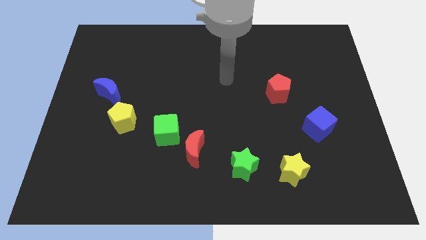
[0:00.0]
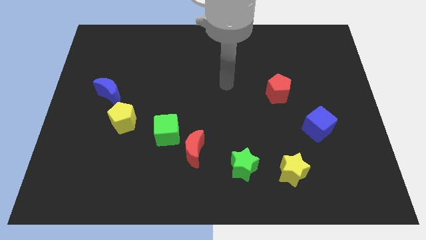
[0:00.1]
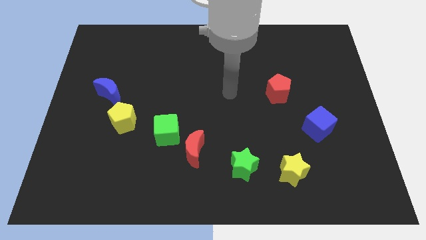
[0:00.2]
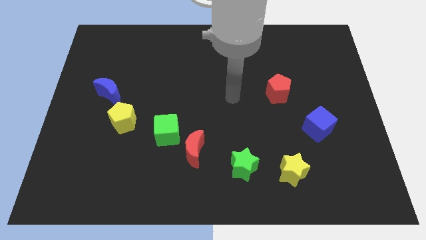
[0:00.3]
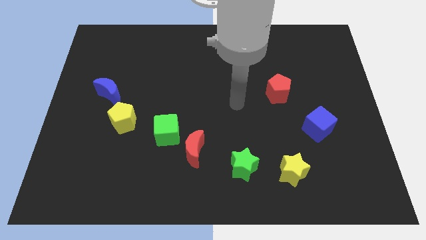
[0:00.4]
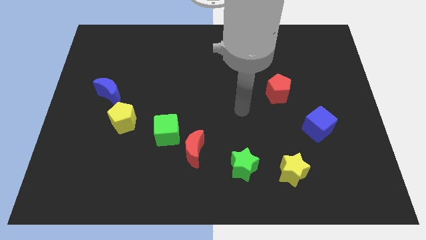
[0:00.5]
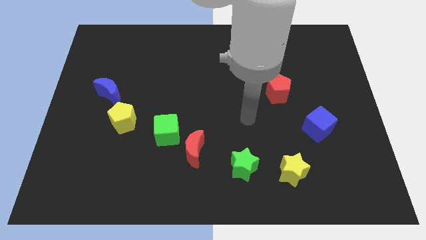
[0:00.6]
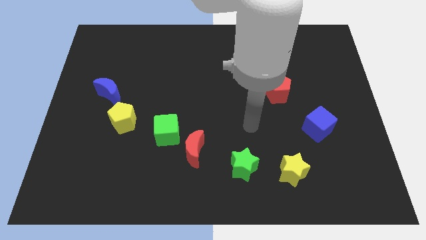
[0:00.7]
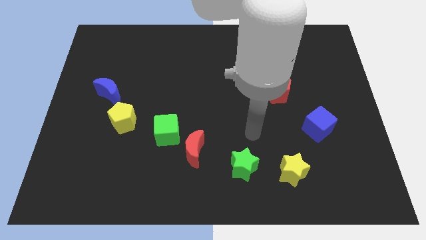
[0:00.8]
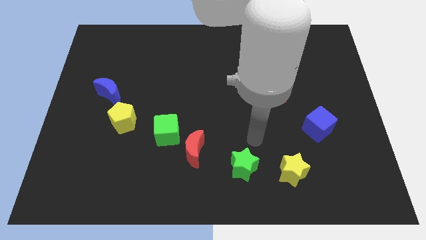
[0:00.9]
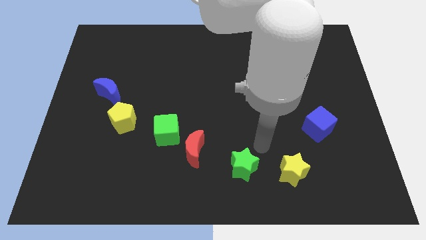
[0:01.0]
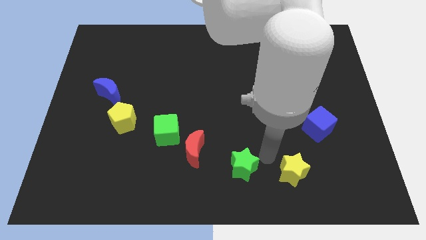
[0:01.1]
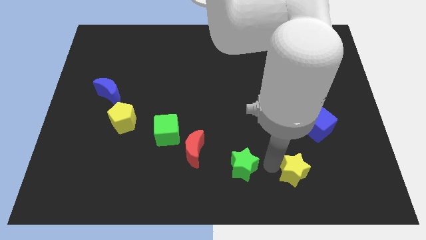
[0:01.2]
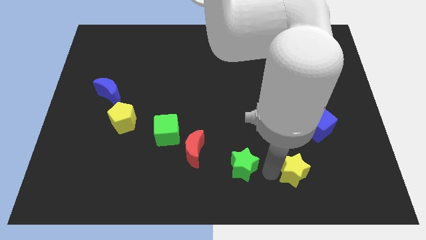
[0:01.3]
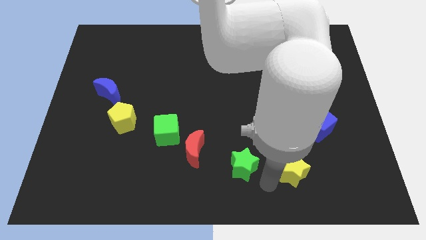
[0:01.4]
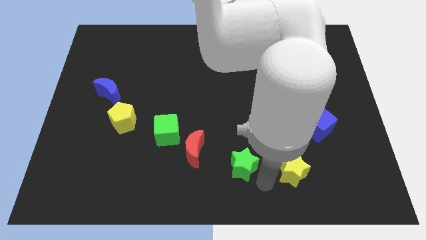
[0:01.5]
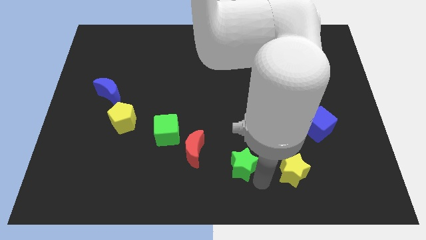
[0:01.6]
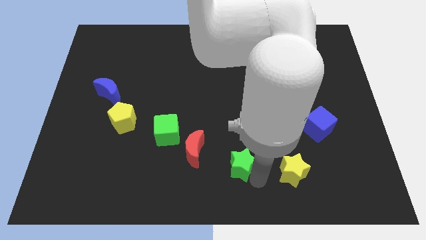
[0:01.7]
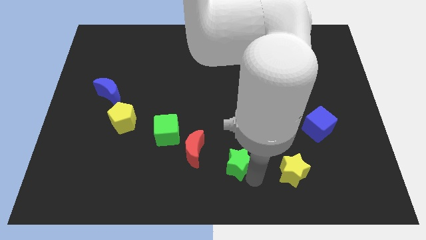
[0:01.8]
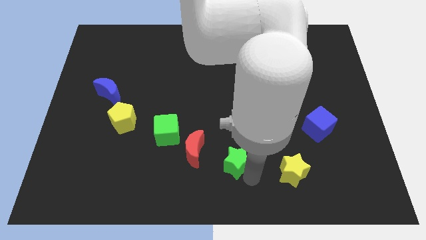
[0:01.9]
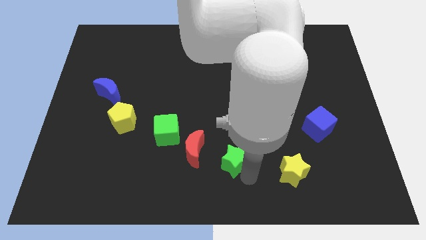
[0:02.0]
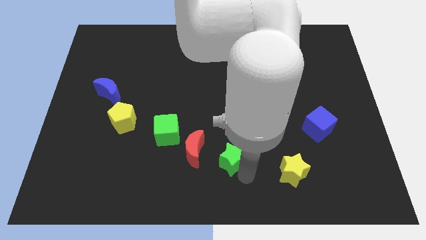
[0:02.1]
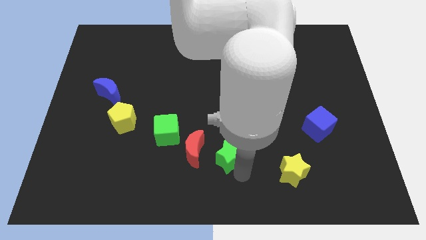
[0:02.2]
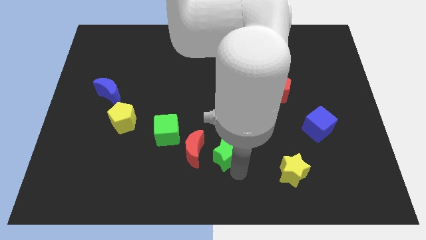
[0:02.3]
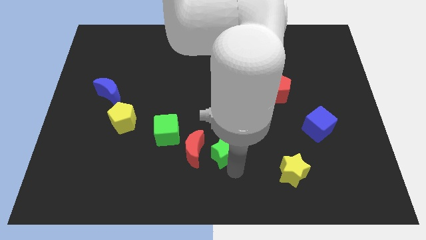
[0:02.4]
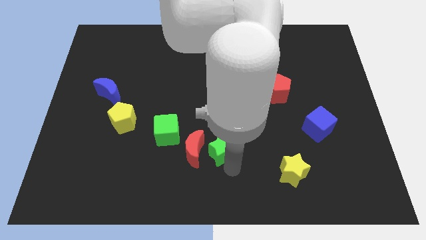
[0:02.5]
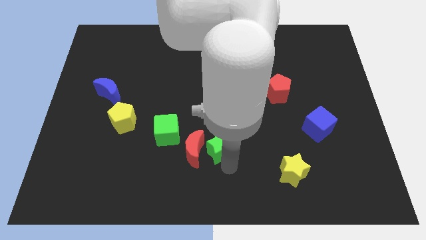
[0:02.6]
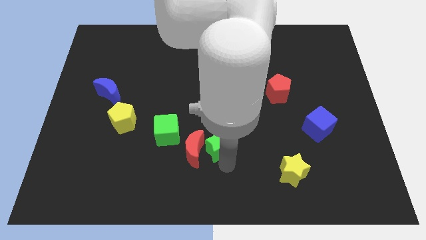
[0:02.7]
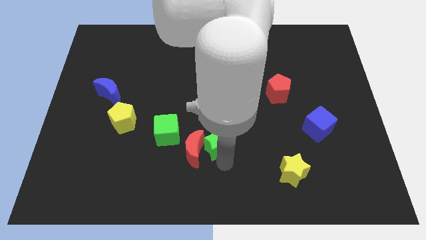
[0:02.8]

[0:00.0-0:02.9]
slightly slide the green star upwards and left diagonally

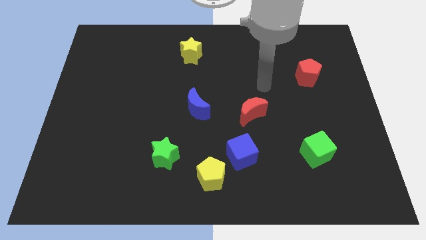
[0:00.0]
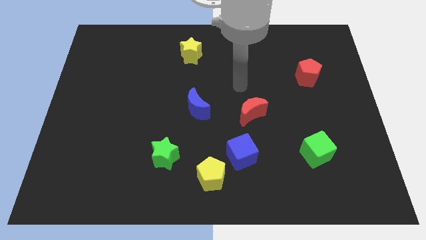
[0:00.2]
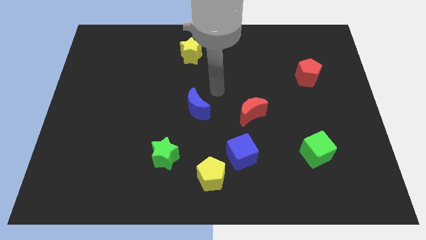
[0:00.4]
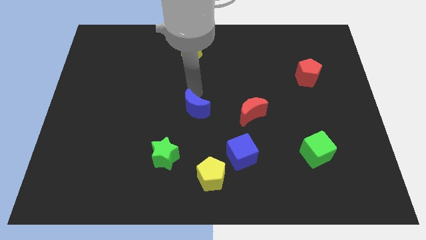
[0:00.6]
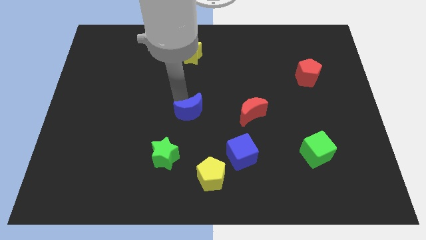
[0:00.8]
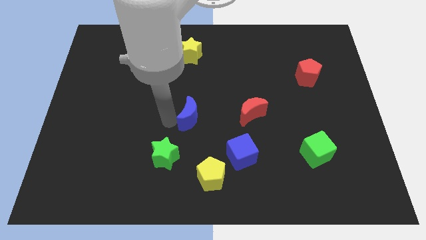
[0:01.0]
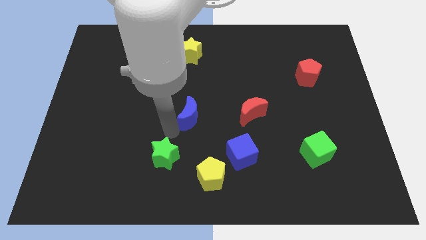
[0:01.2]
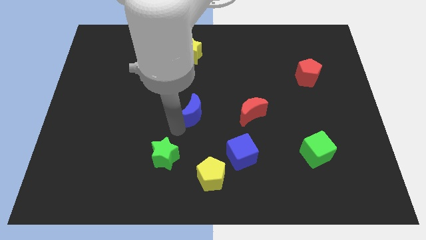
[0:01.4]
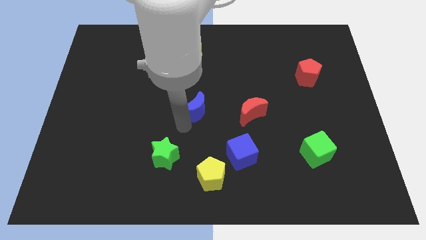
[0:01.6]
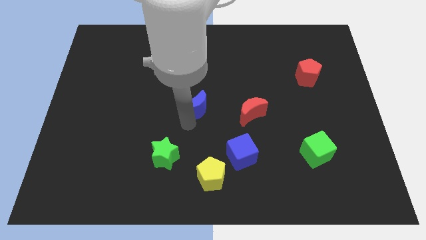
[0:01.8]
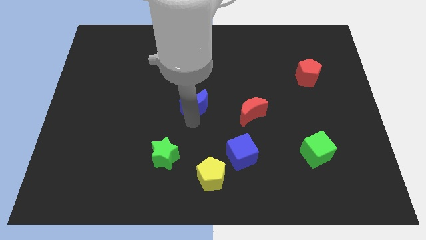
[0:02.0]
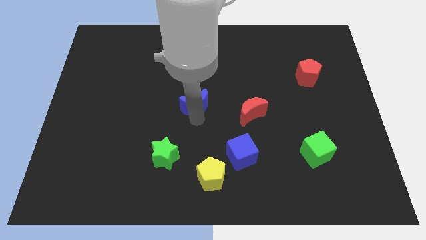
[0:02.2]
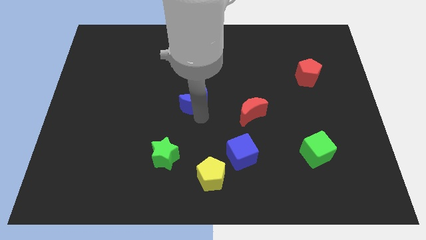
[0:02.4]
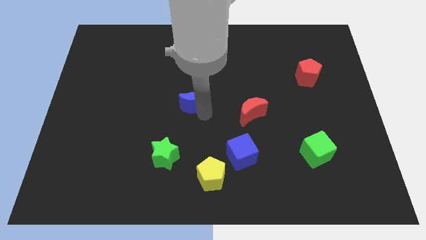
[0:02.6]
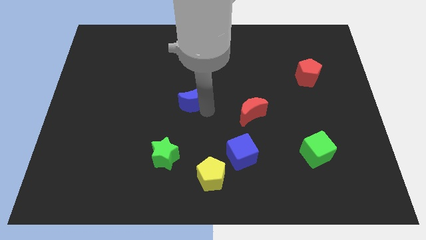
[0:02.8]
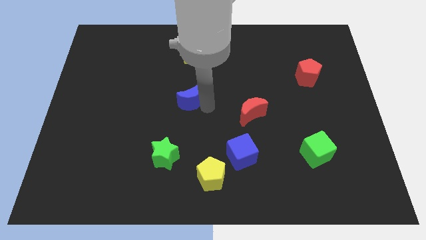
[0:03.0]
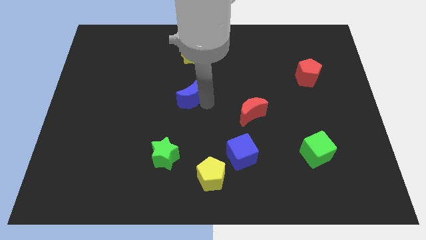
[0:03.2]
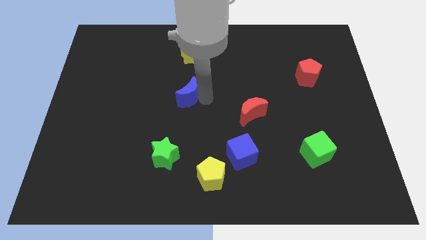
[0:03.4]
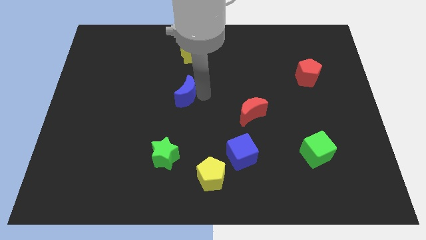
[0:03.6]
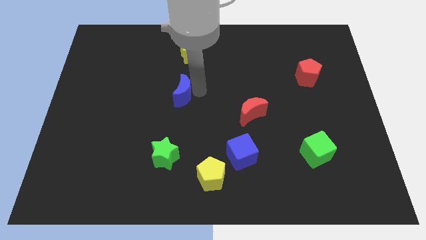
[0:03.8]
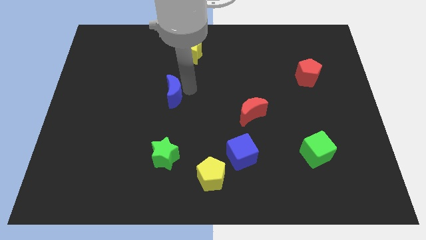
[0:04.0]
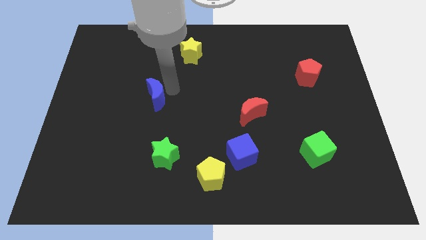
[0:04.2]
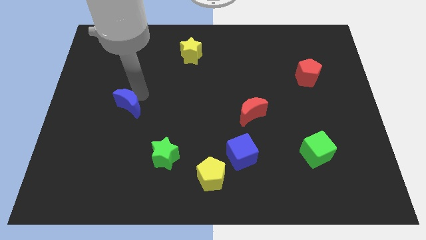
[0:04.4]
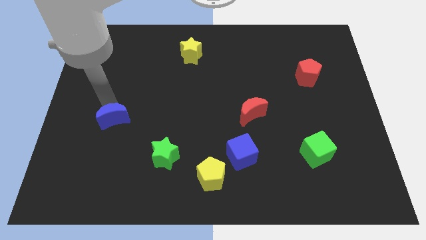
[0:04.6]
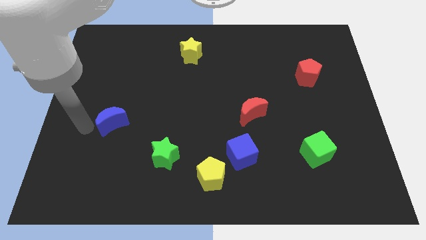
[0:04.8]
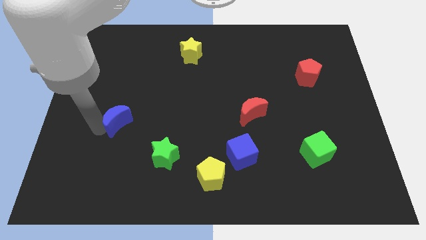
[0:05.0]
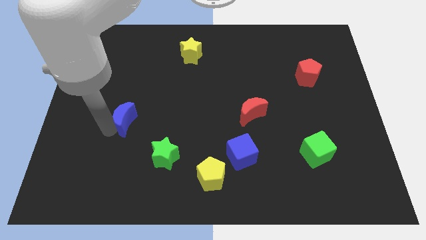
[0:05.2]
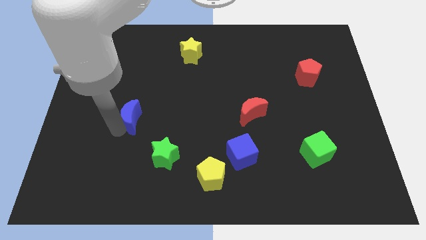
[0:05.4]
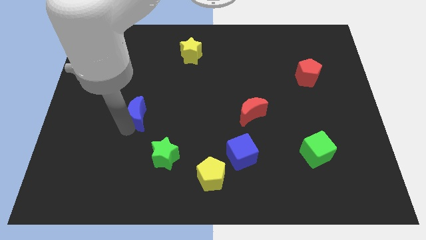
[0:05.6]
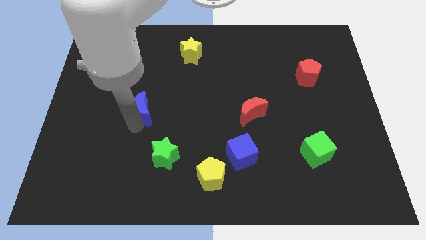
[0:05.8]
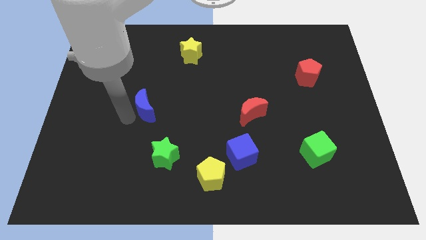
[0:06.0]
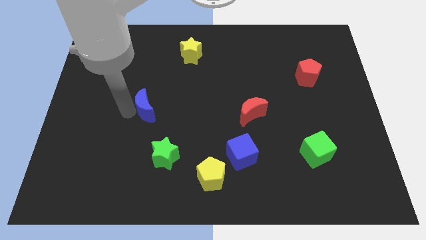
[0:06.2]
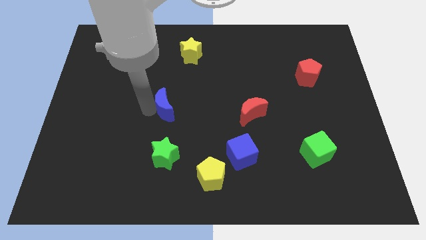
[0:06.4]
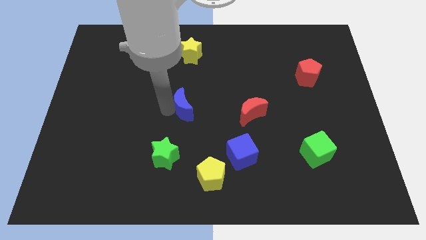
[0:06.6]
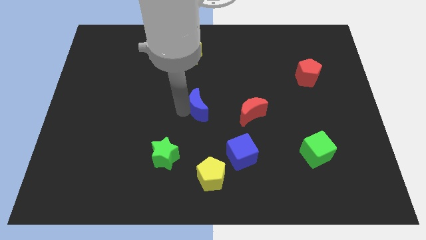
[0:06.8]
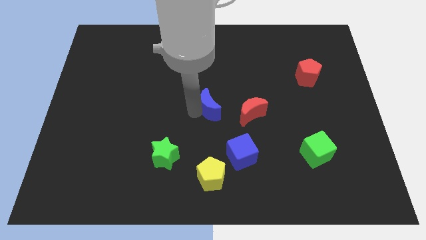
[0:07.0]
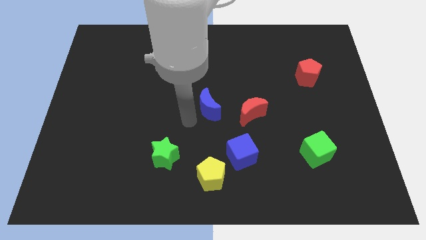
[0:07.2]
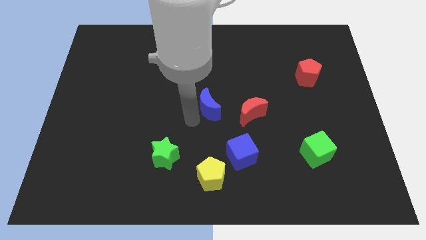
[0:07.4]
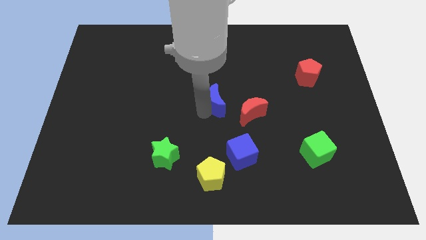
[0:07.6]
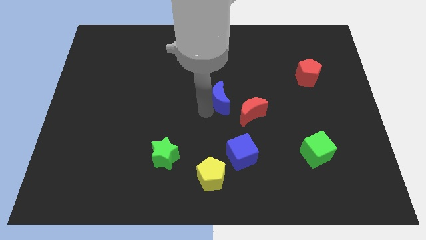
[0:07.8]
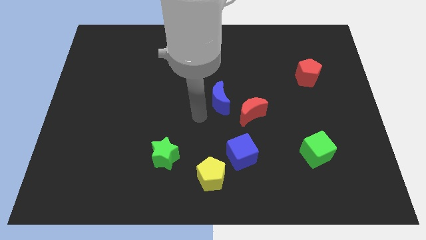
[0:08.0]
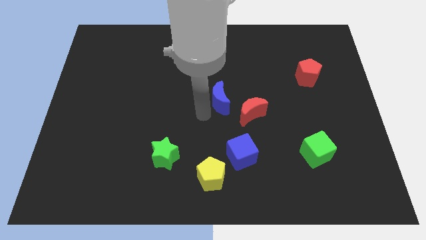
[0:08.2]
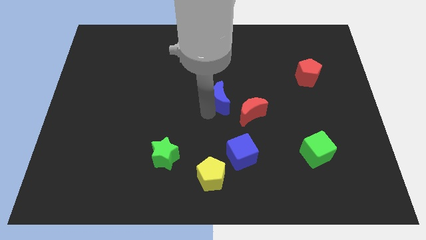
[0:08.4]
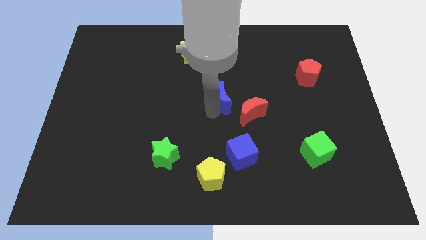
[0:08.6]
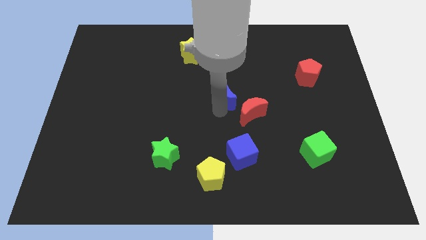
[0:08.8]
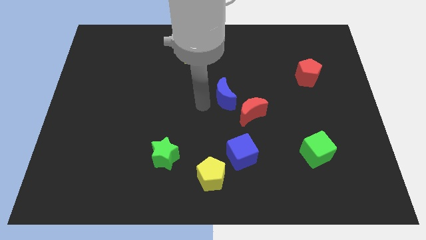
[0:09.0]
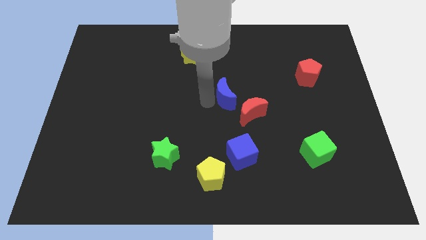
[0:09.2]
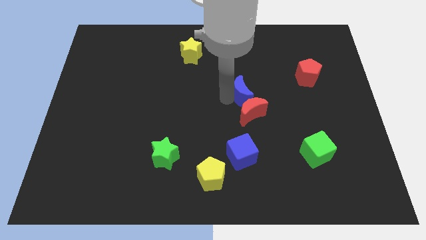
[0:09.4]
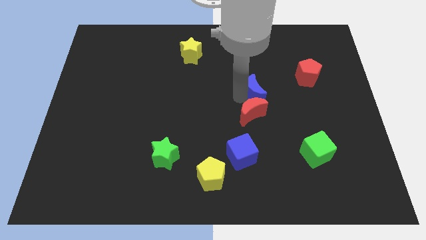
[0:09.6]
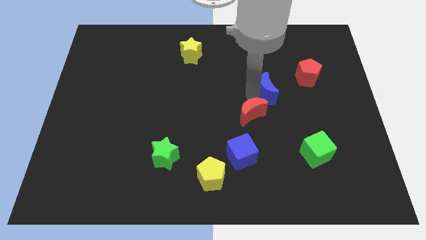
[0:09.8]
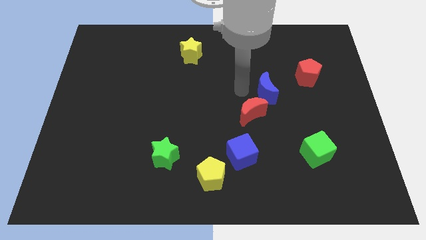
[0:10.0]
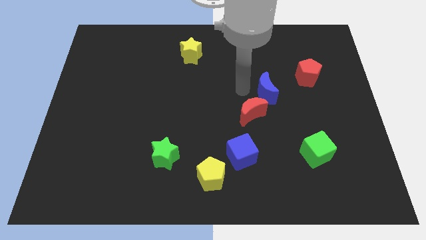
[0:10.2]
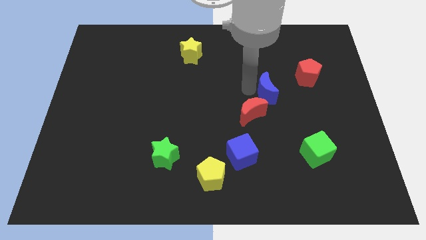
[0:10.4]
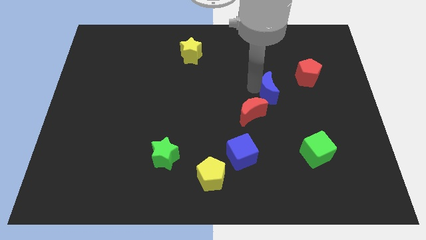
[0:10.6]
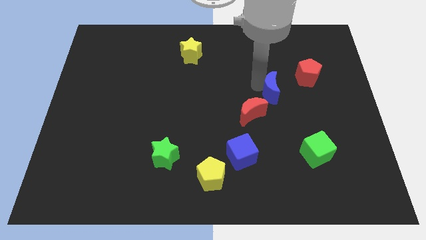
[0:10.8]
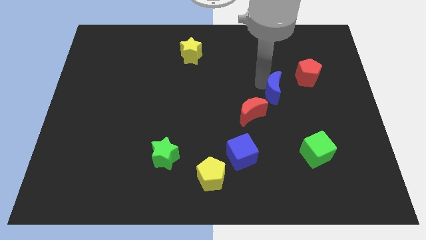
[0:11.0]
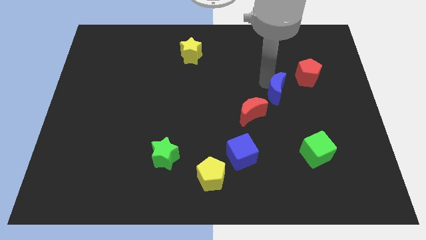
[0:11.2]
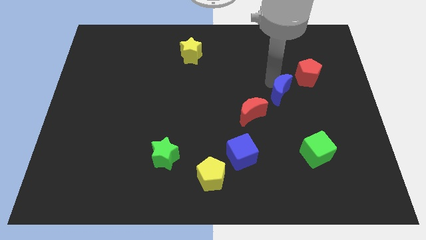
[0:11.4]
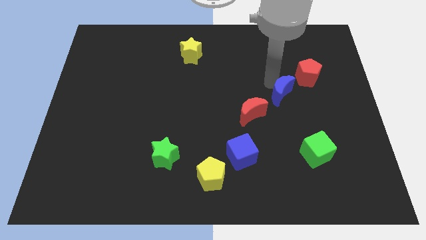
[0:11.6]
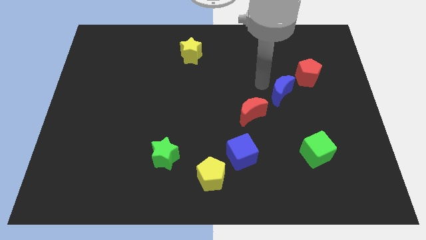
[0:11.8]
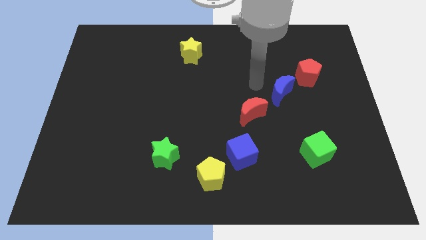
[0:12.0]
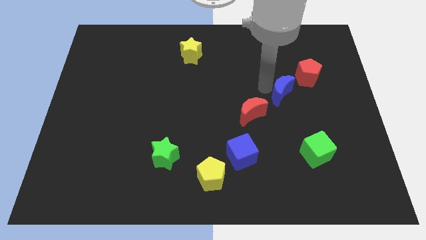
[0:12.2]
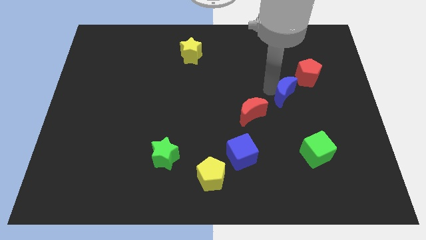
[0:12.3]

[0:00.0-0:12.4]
slide the blue moon to the right
